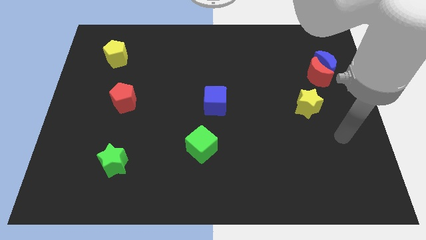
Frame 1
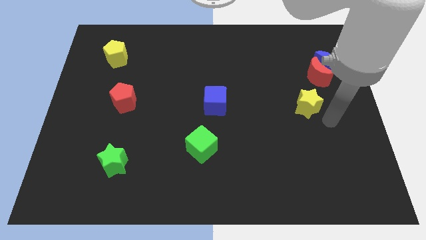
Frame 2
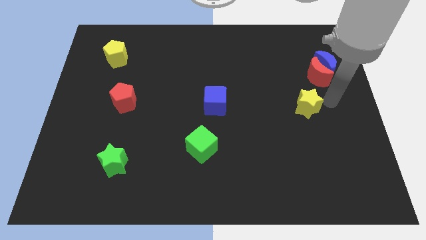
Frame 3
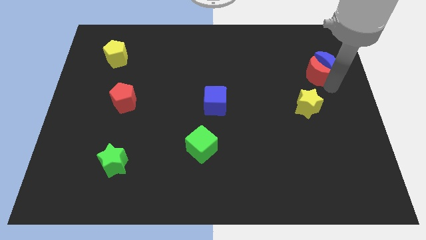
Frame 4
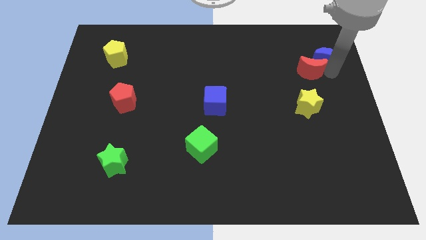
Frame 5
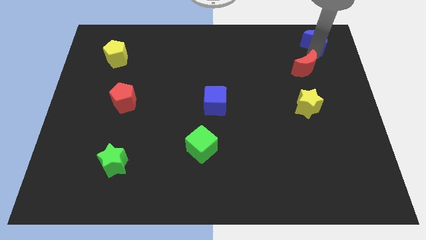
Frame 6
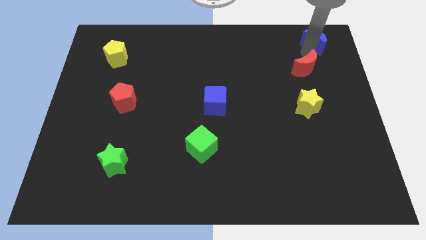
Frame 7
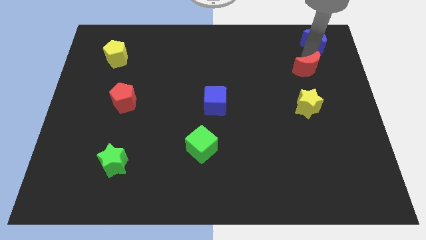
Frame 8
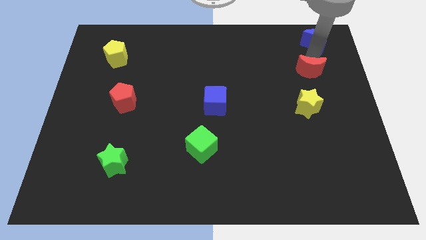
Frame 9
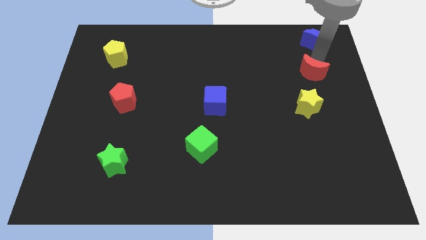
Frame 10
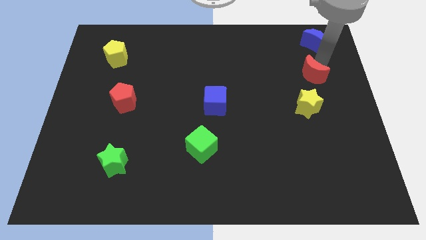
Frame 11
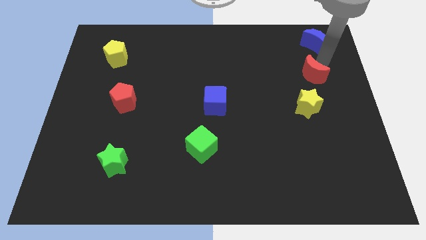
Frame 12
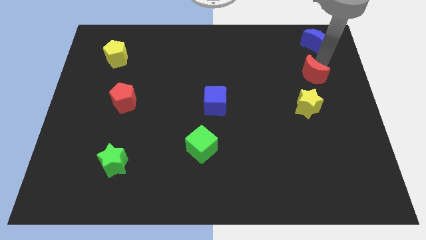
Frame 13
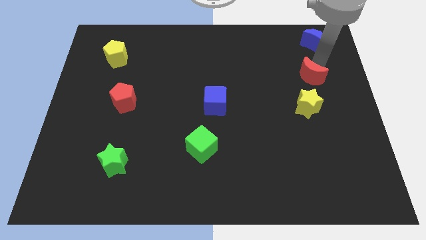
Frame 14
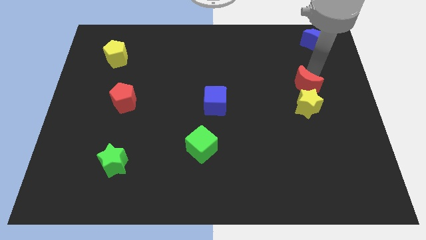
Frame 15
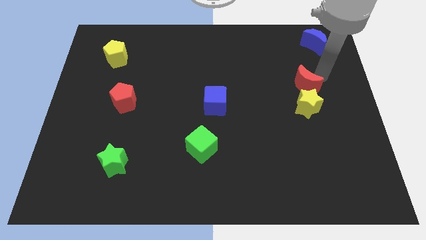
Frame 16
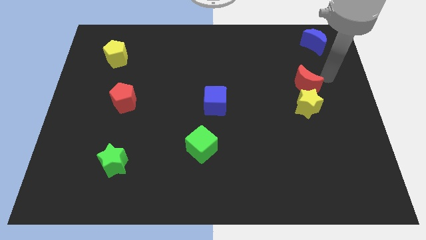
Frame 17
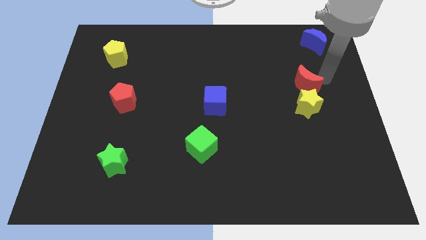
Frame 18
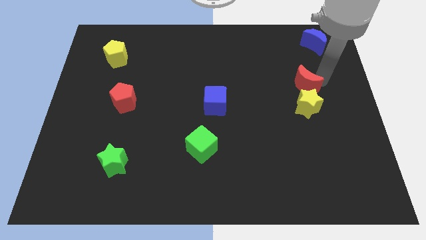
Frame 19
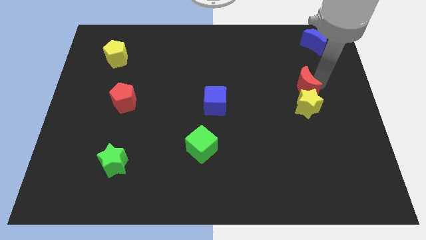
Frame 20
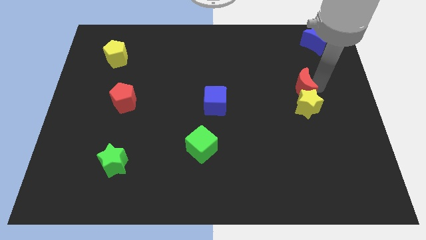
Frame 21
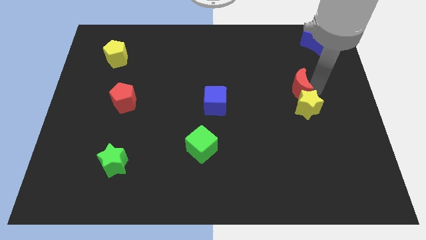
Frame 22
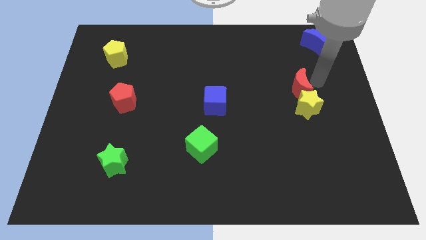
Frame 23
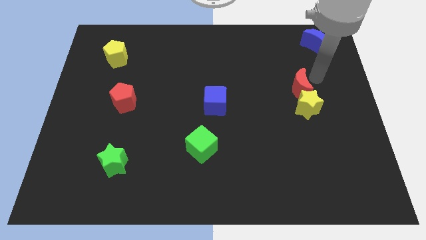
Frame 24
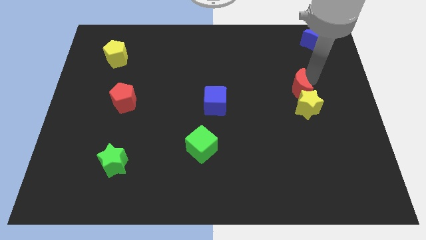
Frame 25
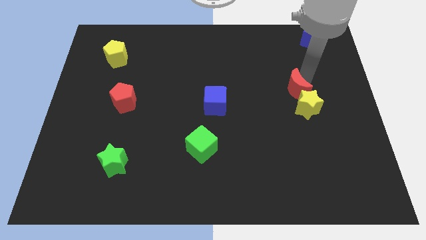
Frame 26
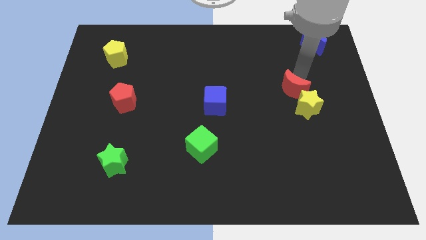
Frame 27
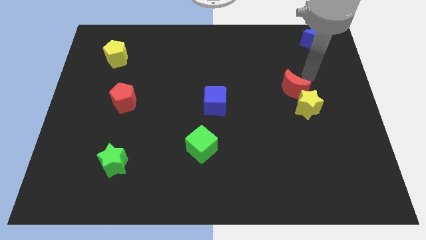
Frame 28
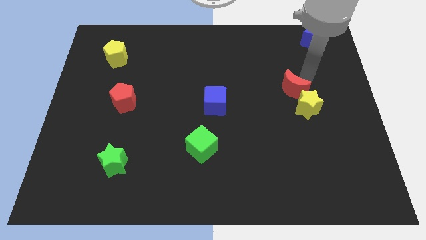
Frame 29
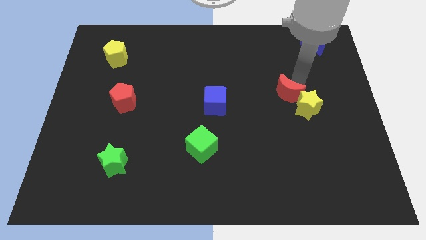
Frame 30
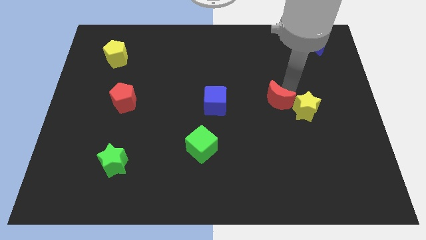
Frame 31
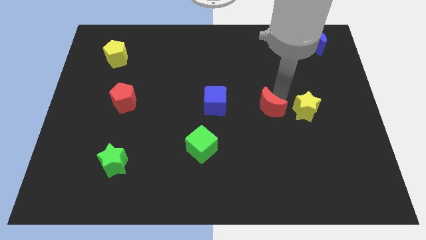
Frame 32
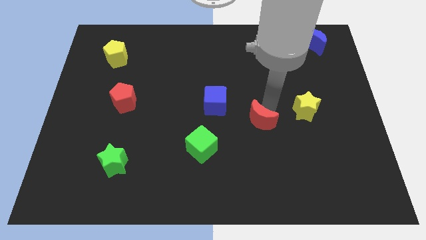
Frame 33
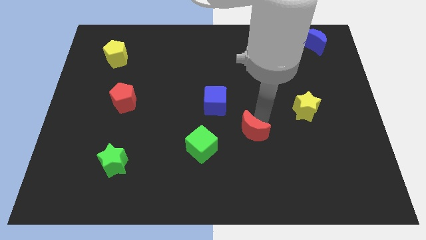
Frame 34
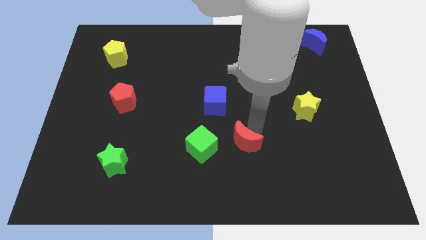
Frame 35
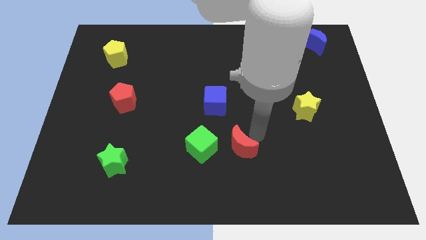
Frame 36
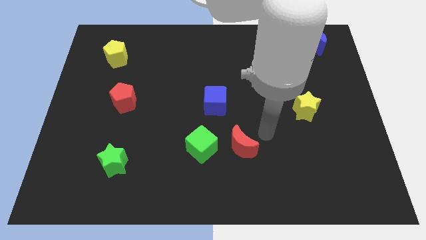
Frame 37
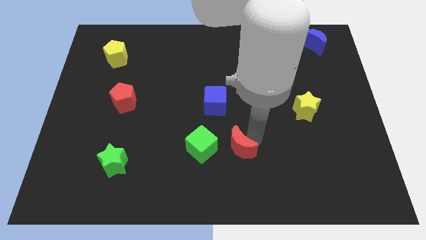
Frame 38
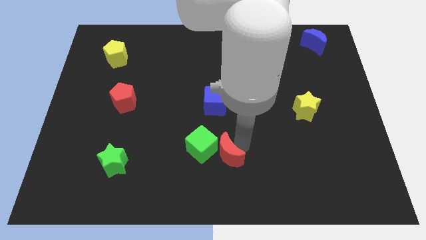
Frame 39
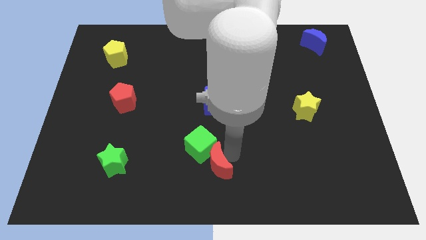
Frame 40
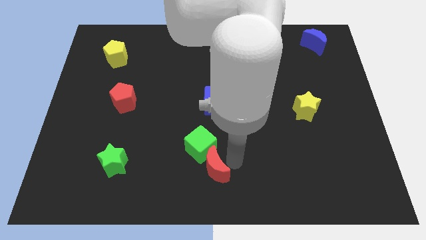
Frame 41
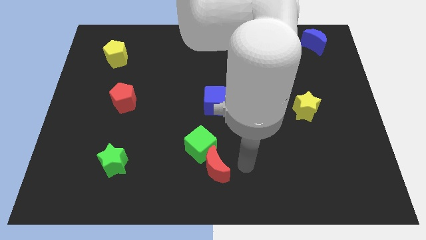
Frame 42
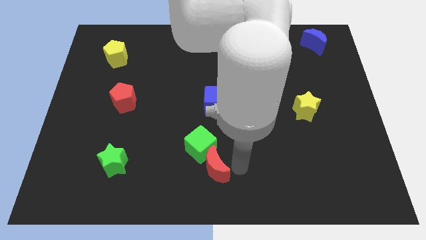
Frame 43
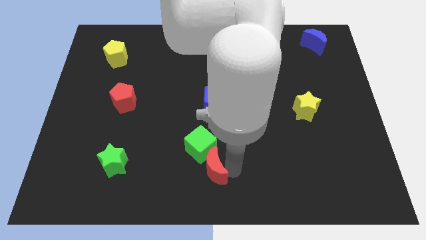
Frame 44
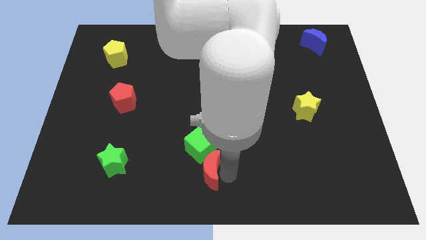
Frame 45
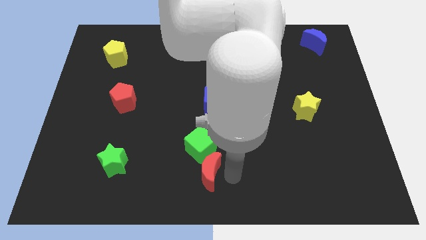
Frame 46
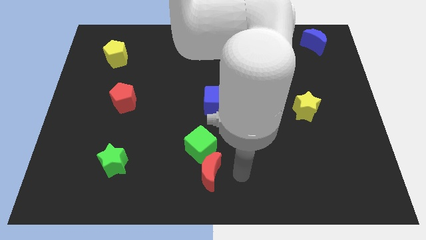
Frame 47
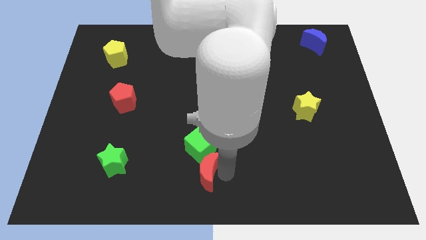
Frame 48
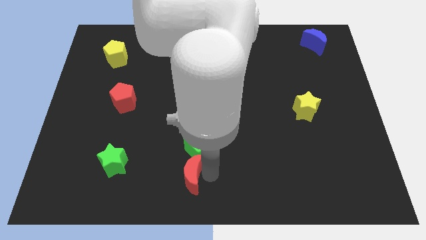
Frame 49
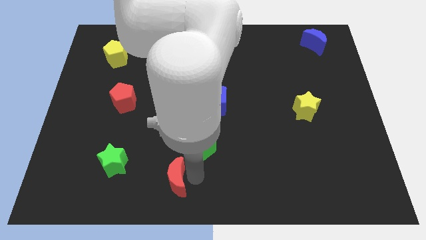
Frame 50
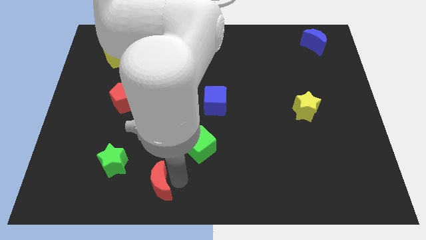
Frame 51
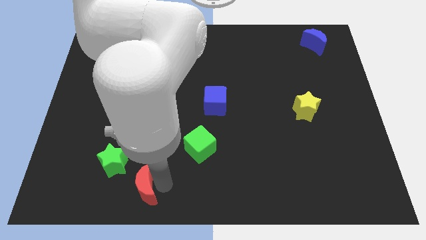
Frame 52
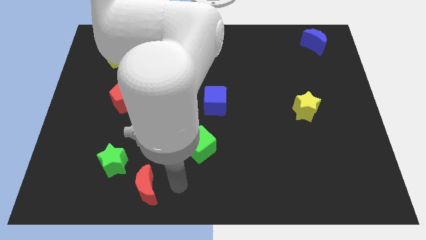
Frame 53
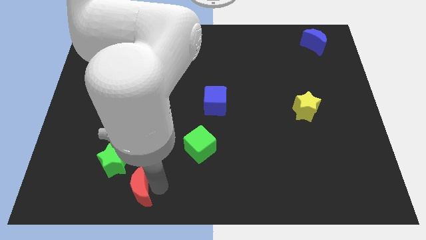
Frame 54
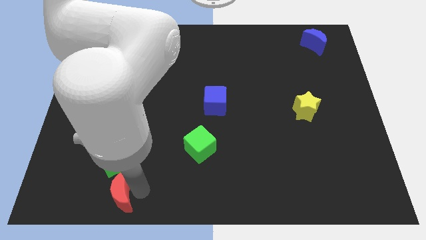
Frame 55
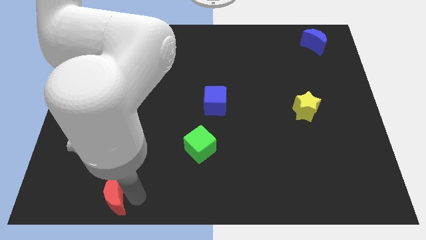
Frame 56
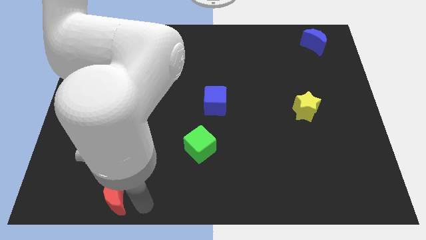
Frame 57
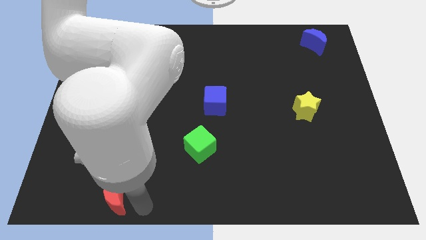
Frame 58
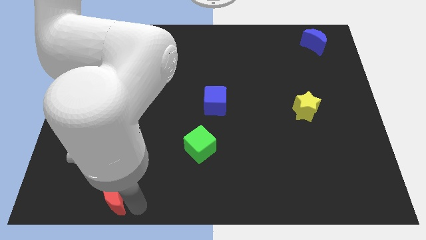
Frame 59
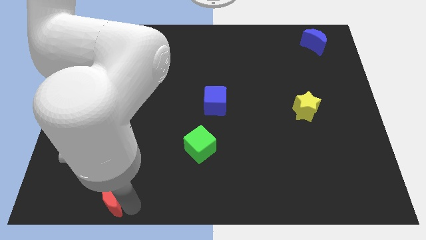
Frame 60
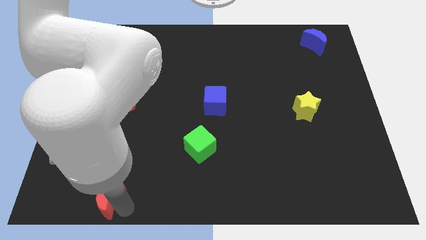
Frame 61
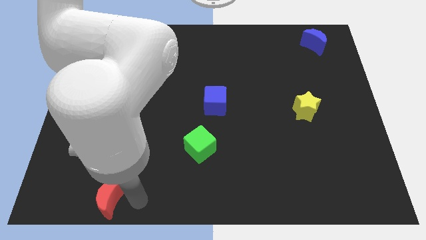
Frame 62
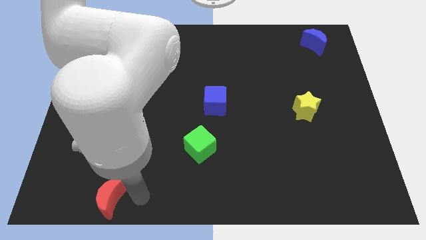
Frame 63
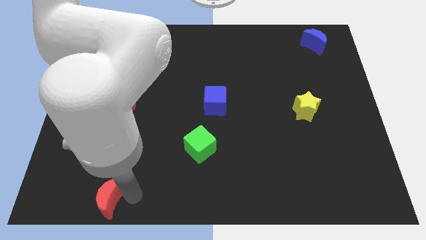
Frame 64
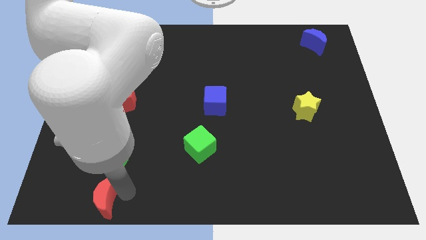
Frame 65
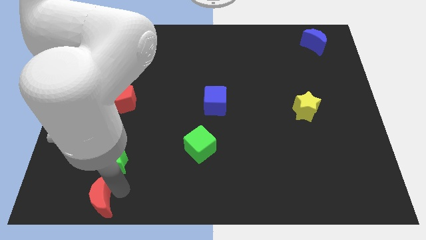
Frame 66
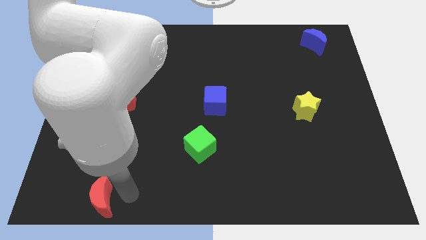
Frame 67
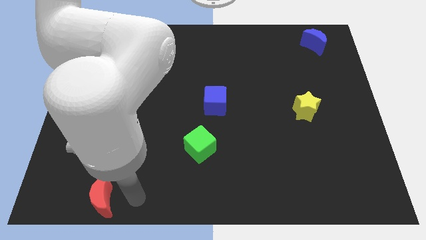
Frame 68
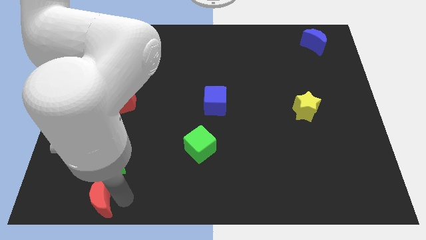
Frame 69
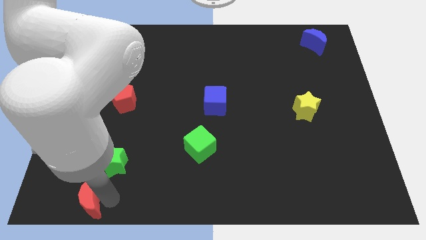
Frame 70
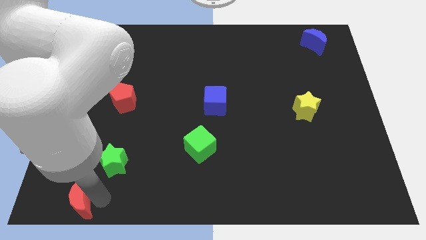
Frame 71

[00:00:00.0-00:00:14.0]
push the red moon to the bottom left

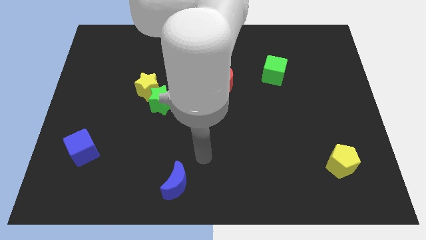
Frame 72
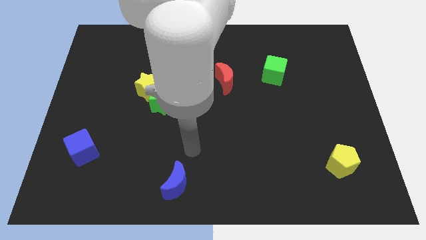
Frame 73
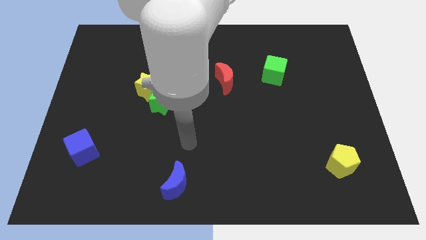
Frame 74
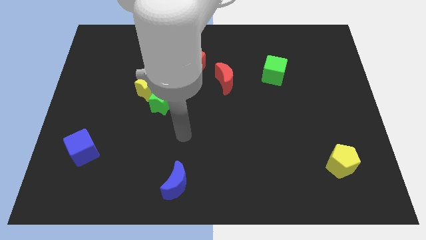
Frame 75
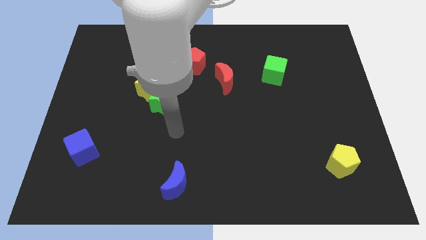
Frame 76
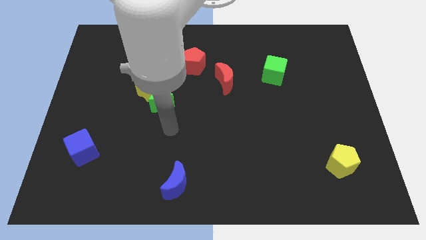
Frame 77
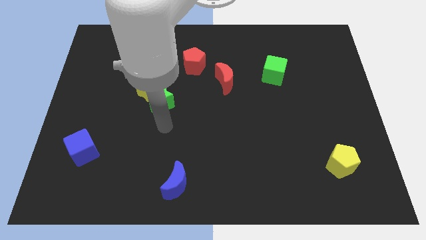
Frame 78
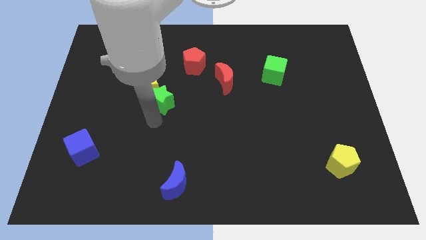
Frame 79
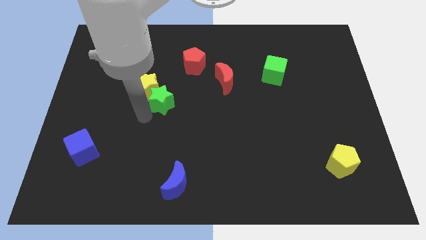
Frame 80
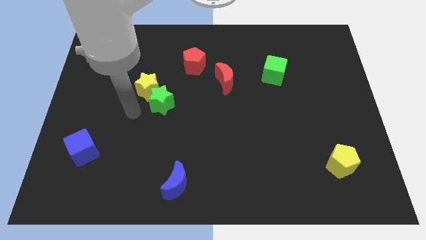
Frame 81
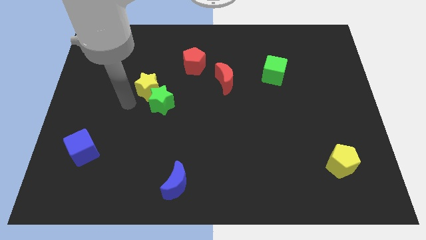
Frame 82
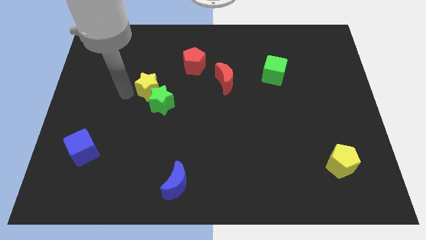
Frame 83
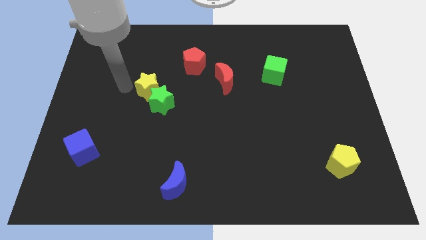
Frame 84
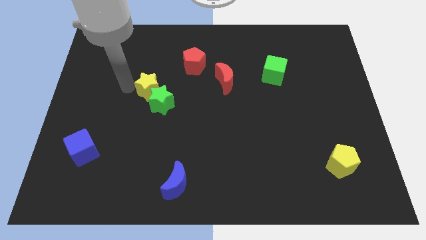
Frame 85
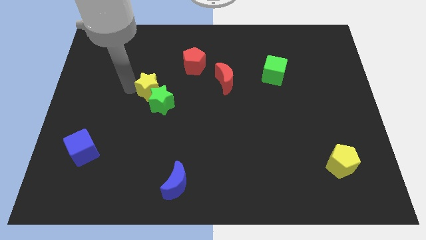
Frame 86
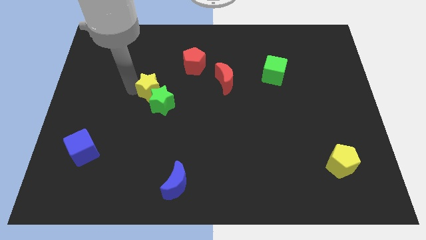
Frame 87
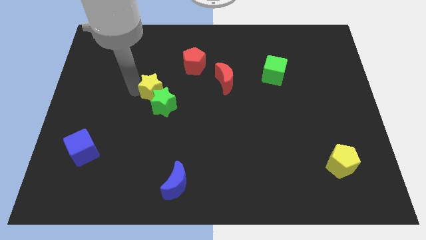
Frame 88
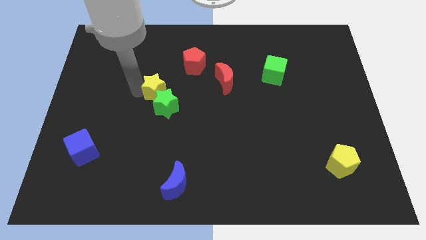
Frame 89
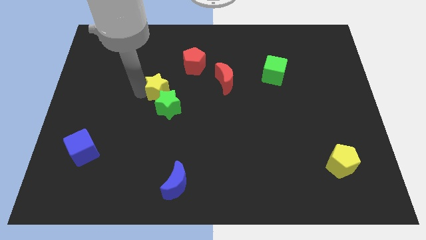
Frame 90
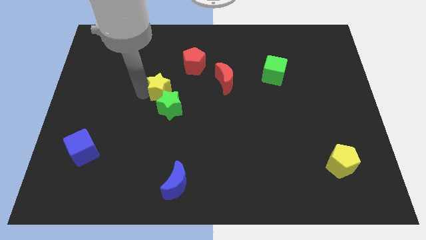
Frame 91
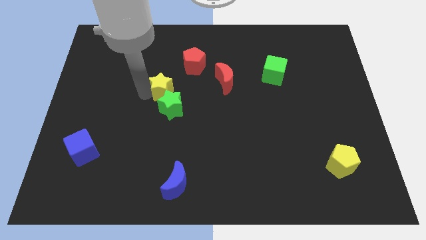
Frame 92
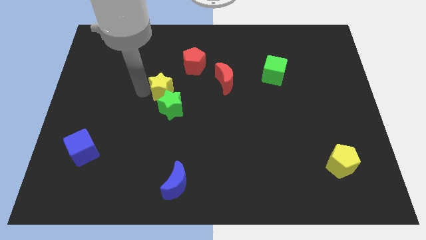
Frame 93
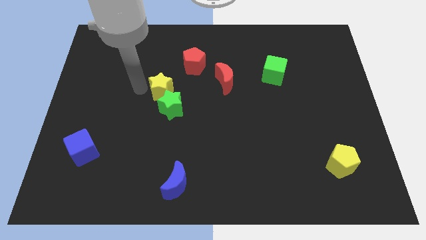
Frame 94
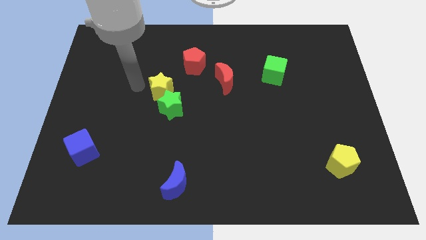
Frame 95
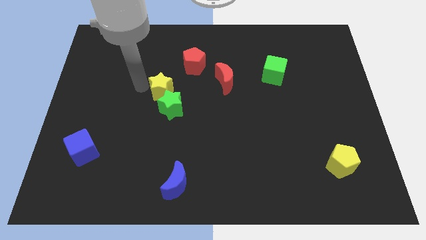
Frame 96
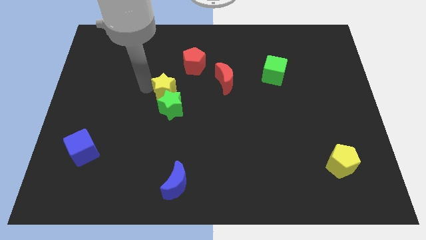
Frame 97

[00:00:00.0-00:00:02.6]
push the yellow star to the center
